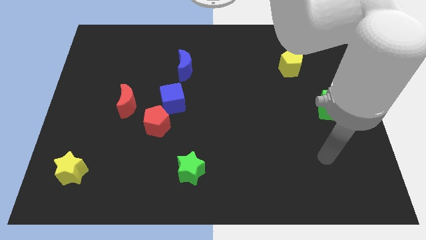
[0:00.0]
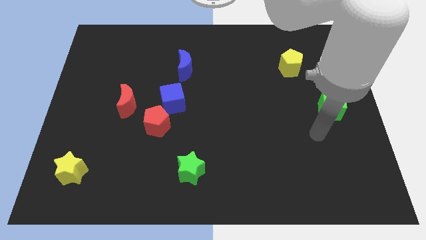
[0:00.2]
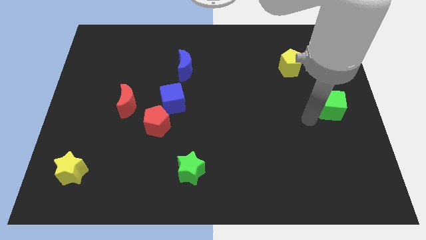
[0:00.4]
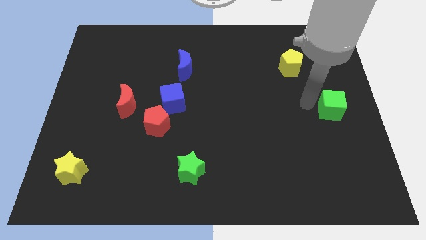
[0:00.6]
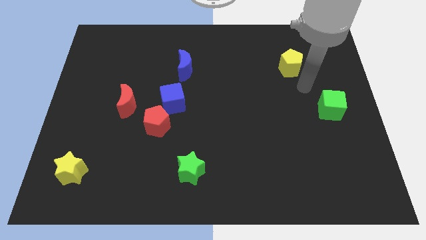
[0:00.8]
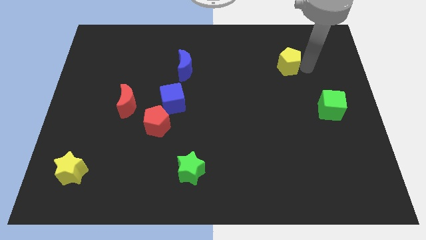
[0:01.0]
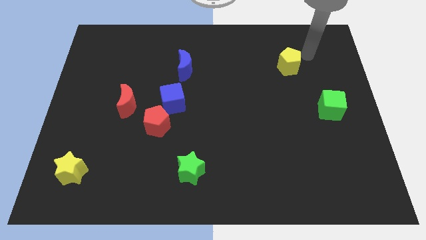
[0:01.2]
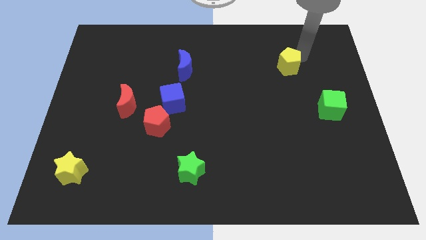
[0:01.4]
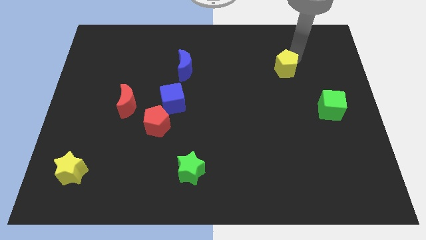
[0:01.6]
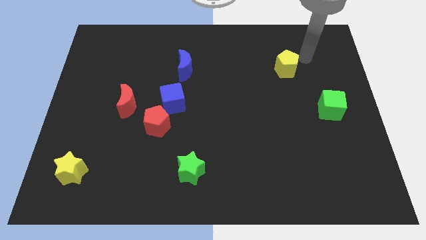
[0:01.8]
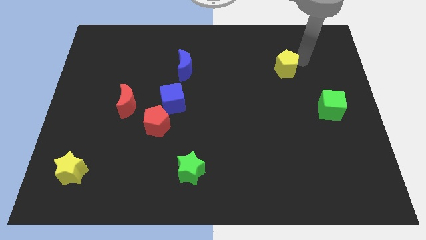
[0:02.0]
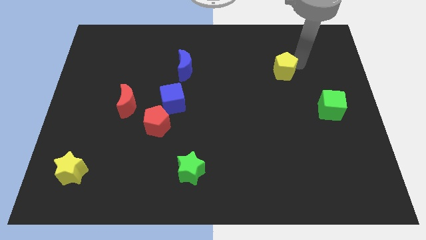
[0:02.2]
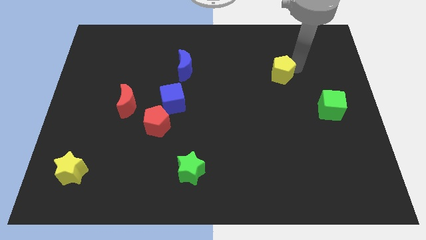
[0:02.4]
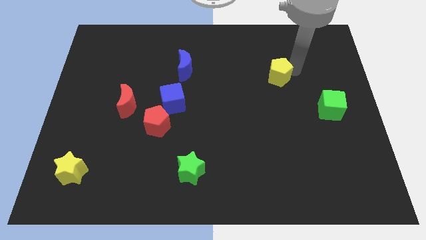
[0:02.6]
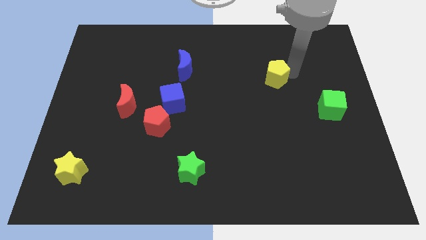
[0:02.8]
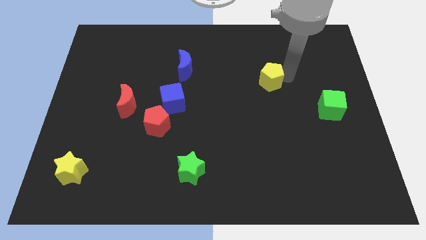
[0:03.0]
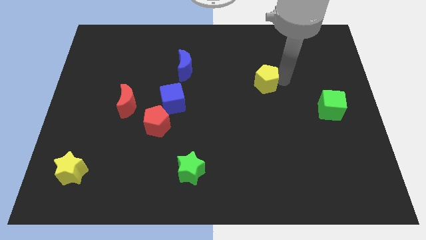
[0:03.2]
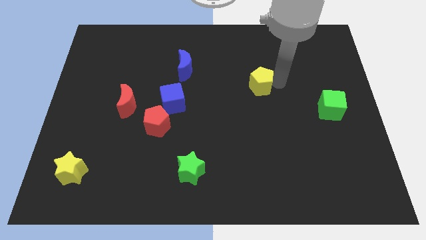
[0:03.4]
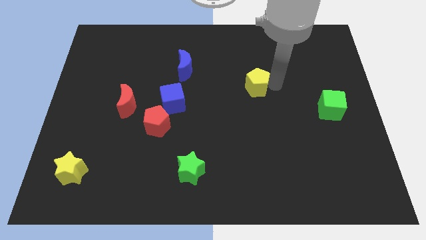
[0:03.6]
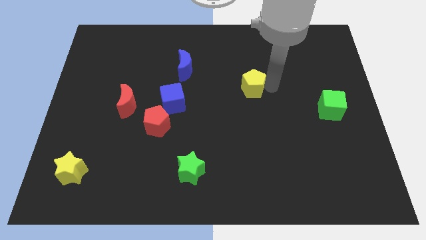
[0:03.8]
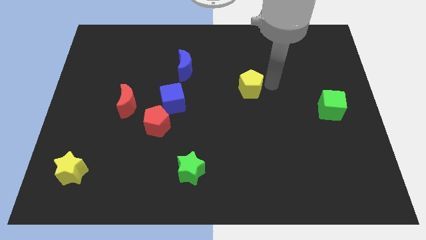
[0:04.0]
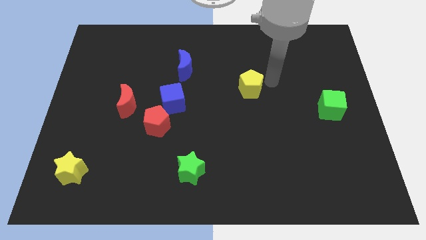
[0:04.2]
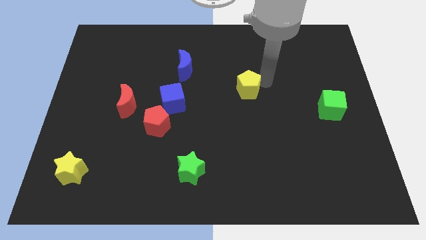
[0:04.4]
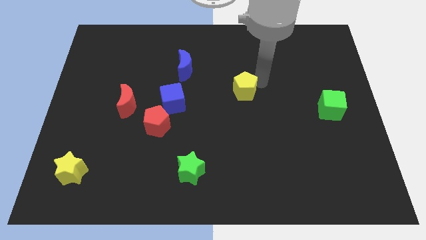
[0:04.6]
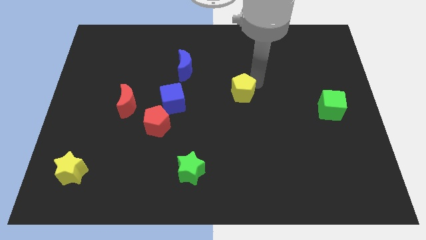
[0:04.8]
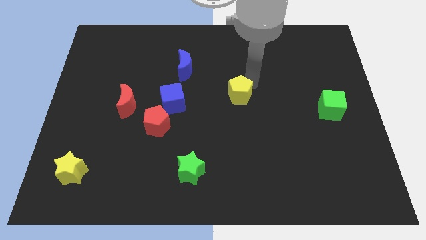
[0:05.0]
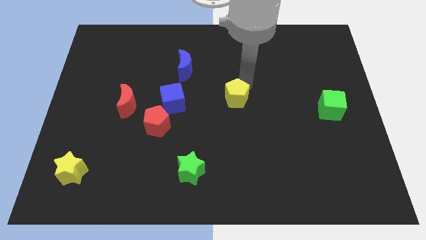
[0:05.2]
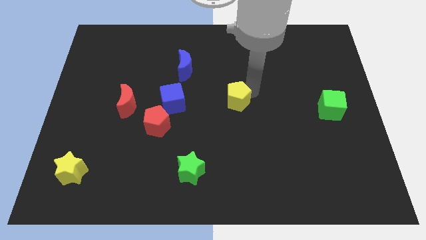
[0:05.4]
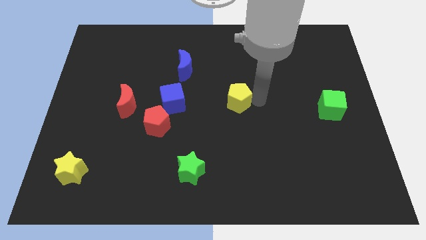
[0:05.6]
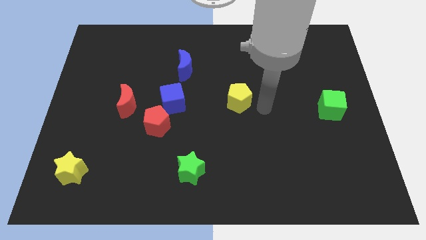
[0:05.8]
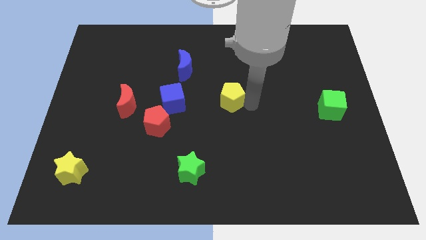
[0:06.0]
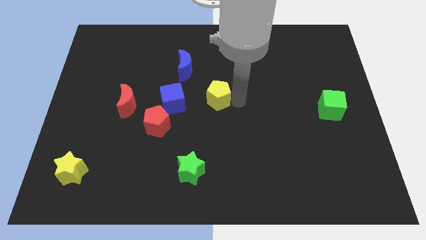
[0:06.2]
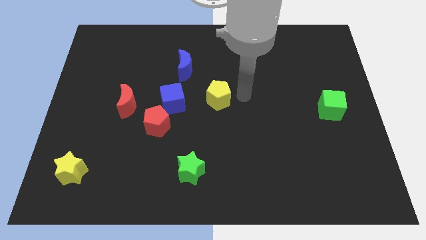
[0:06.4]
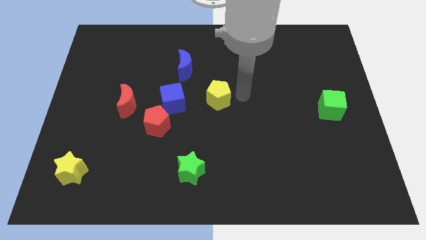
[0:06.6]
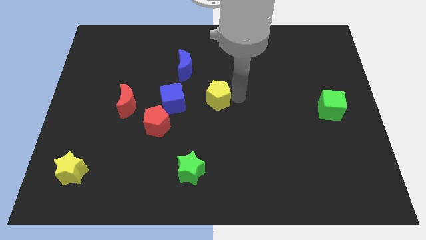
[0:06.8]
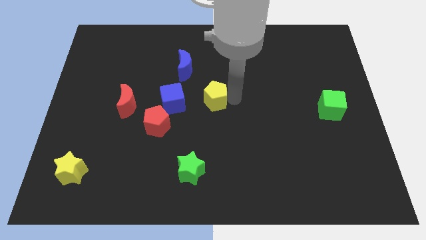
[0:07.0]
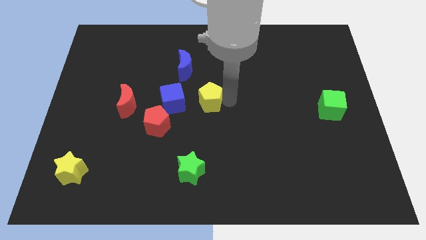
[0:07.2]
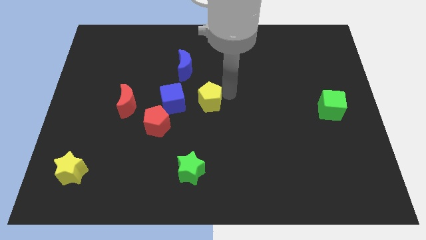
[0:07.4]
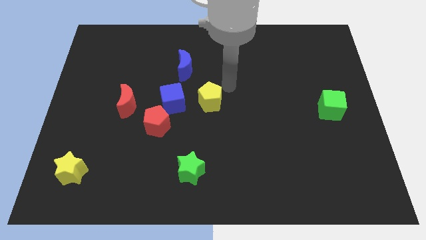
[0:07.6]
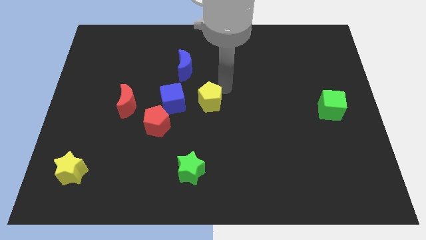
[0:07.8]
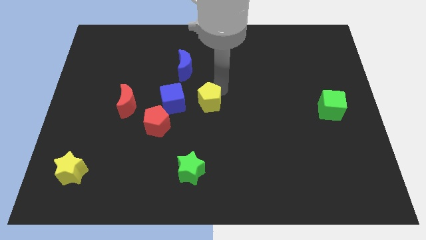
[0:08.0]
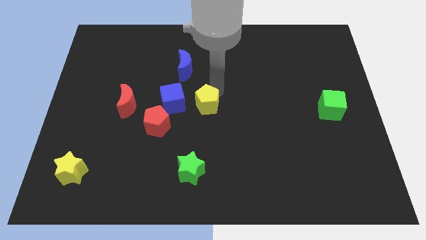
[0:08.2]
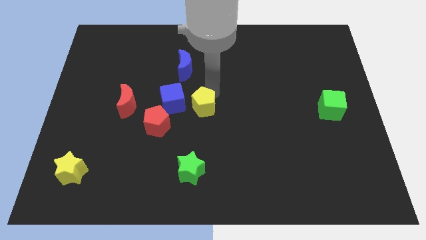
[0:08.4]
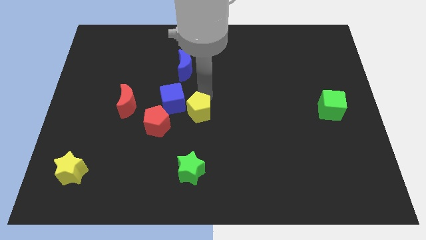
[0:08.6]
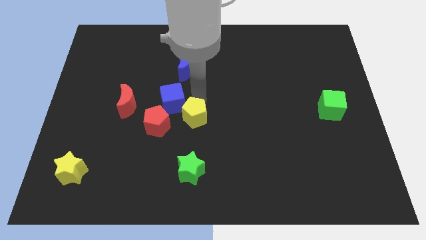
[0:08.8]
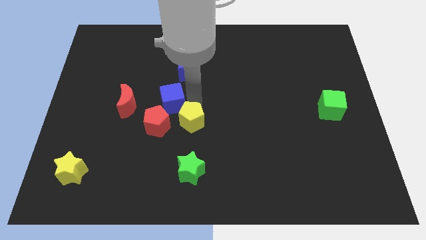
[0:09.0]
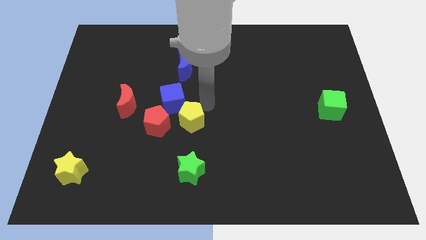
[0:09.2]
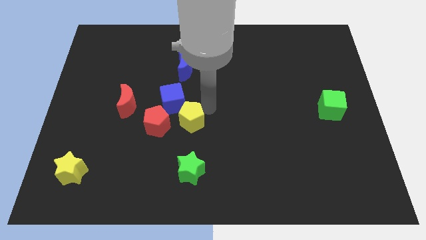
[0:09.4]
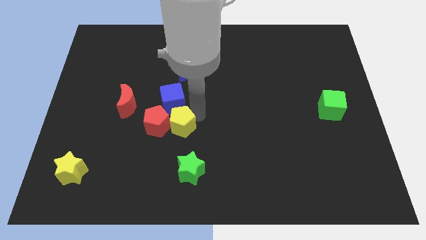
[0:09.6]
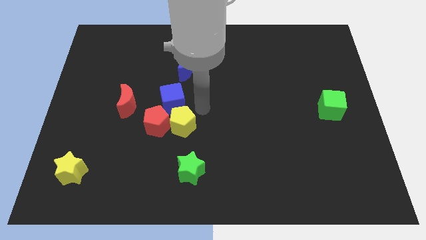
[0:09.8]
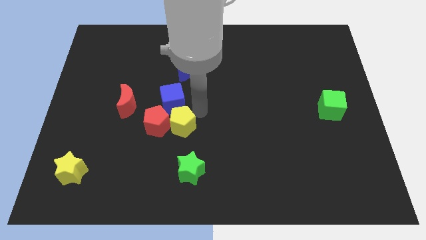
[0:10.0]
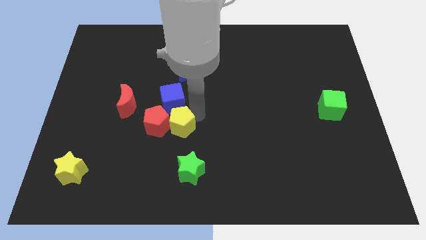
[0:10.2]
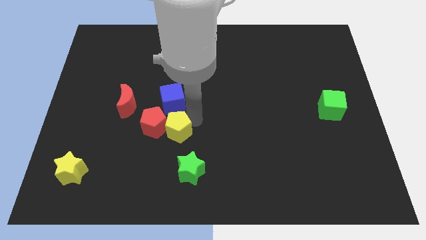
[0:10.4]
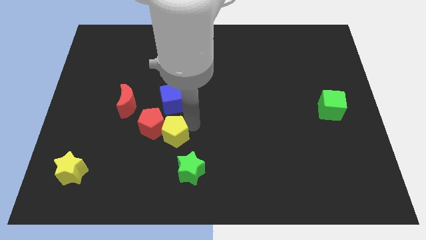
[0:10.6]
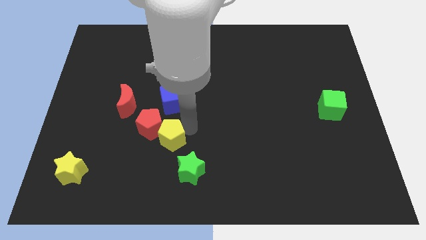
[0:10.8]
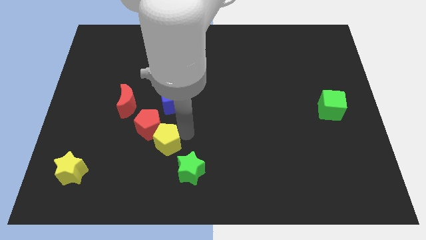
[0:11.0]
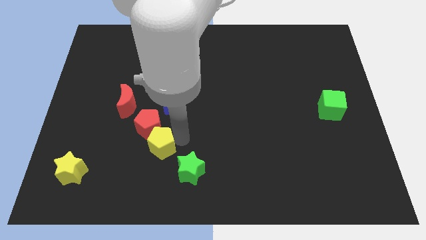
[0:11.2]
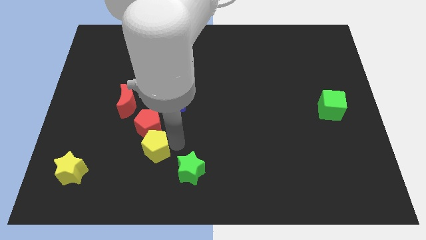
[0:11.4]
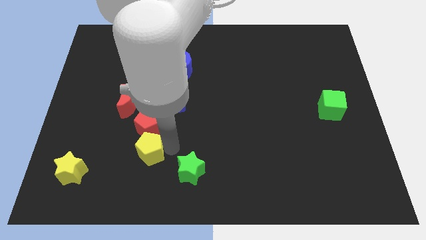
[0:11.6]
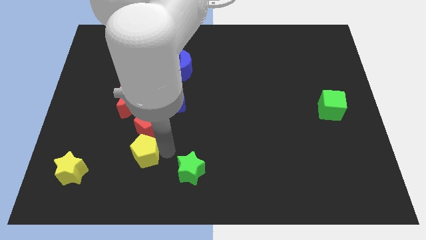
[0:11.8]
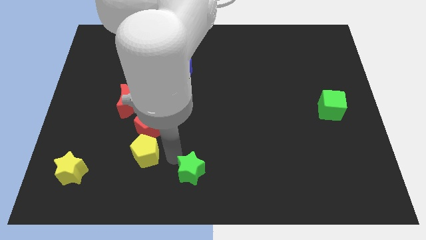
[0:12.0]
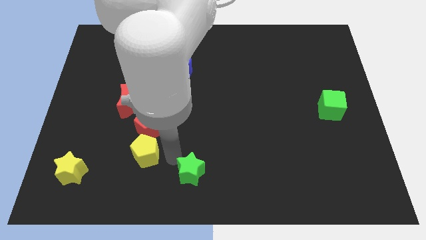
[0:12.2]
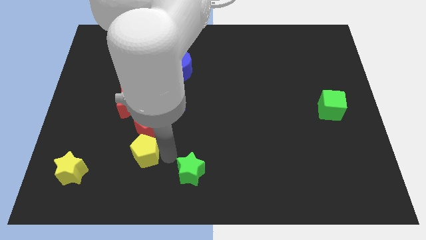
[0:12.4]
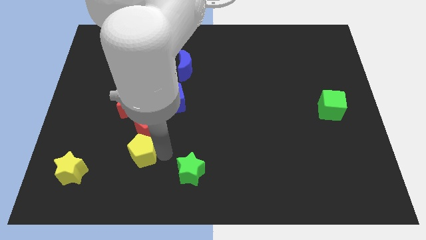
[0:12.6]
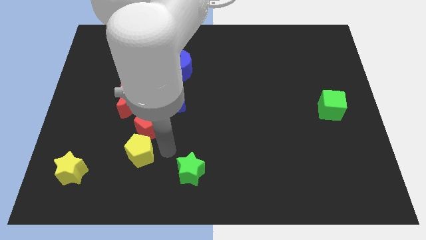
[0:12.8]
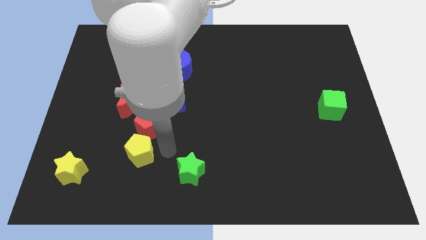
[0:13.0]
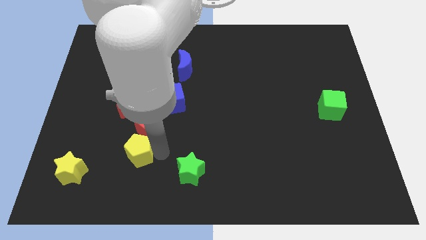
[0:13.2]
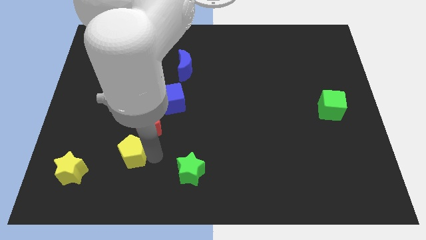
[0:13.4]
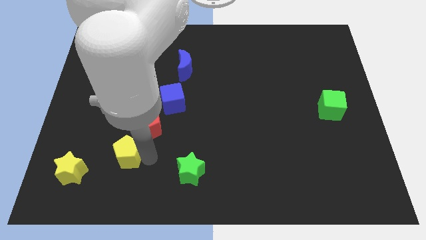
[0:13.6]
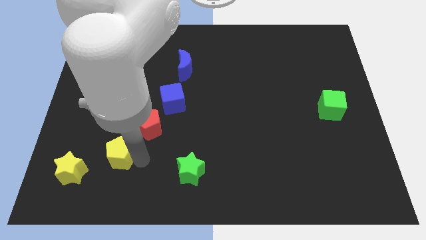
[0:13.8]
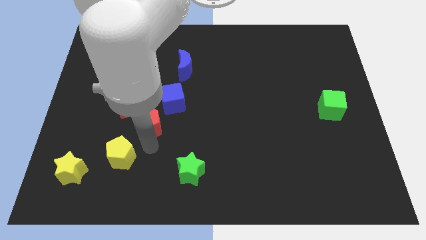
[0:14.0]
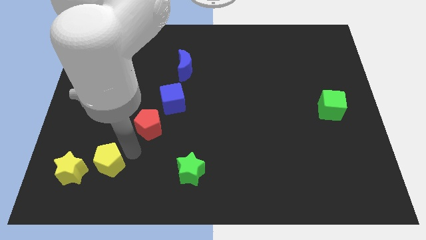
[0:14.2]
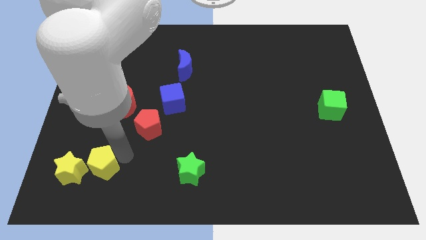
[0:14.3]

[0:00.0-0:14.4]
move the yellow pentagon next to the yellow star
